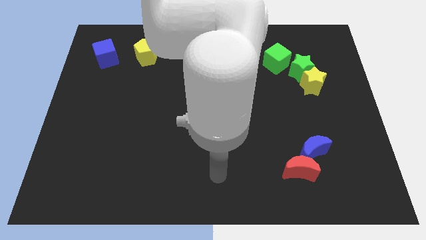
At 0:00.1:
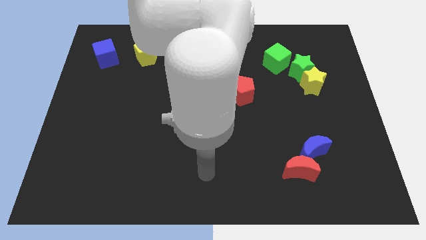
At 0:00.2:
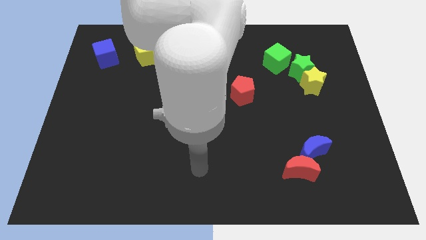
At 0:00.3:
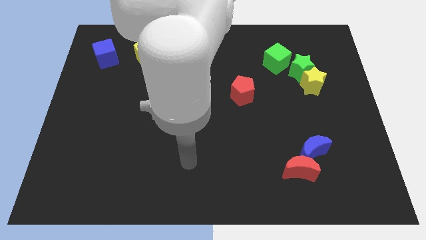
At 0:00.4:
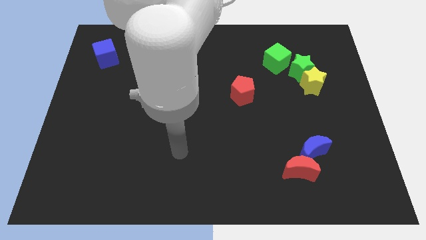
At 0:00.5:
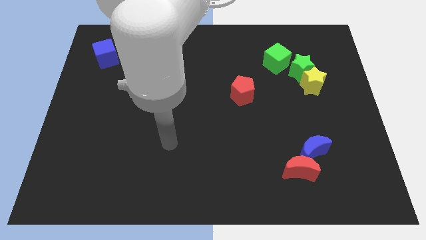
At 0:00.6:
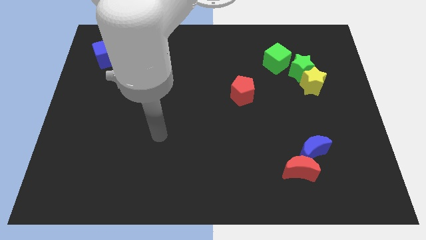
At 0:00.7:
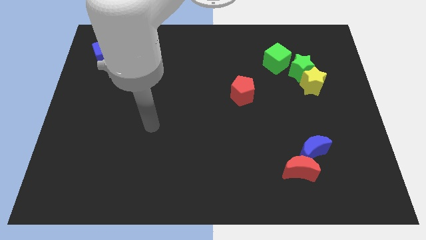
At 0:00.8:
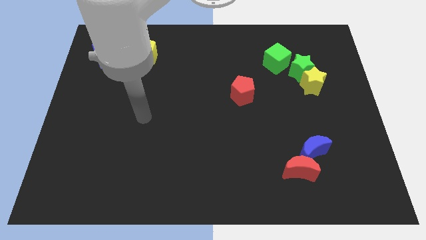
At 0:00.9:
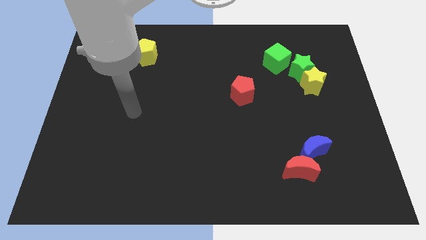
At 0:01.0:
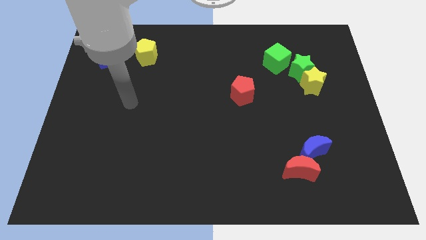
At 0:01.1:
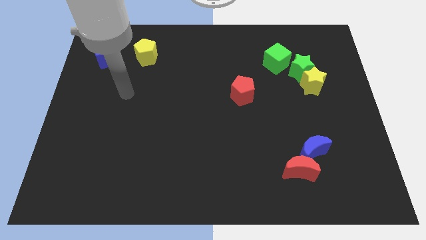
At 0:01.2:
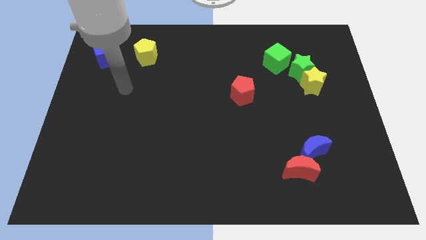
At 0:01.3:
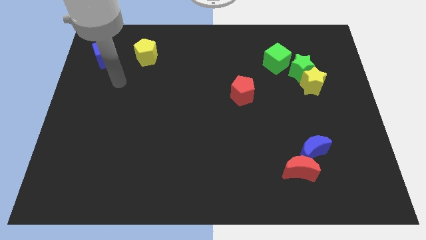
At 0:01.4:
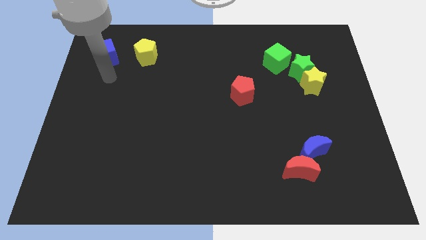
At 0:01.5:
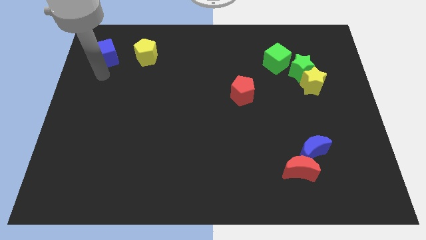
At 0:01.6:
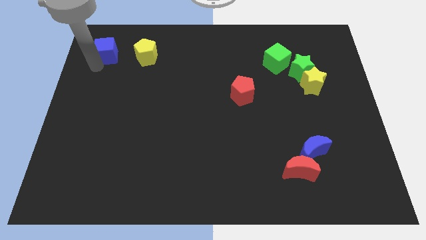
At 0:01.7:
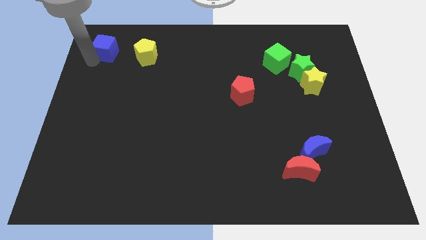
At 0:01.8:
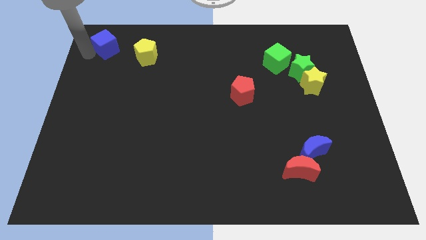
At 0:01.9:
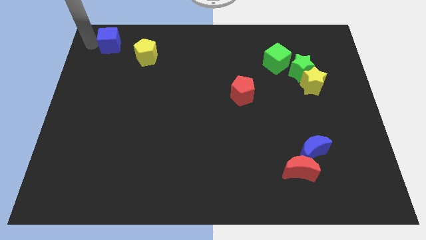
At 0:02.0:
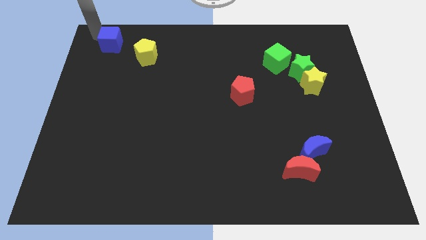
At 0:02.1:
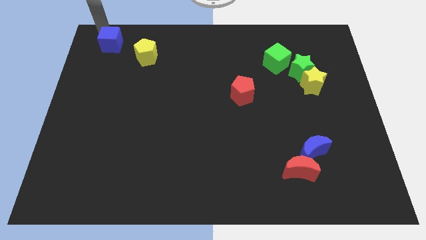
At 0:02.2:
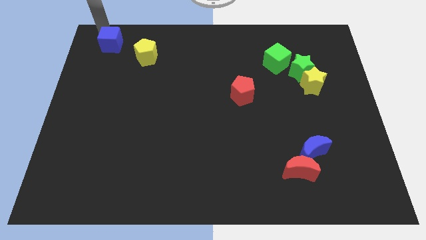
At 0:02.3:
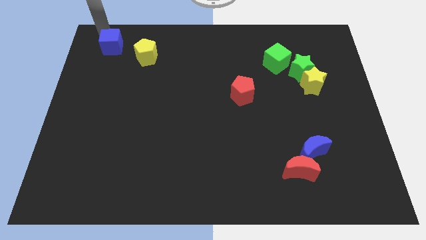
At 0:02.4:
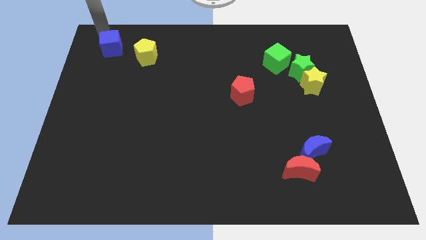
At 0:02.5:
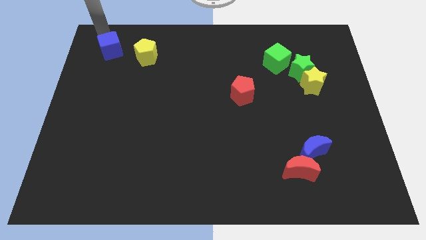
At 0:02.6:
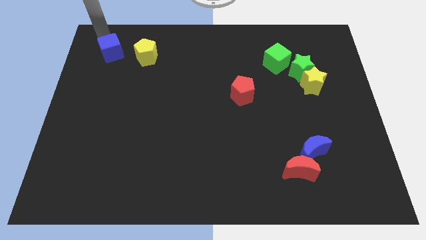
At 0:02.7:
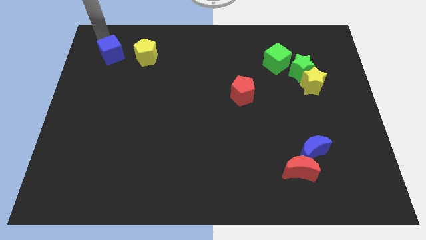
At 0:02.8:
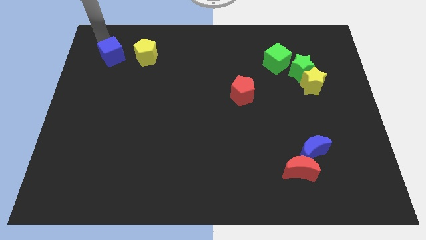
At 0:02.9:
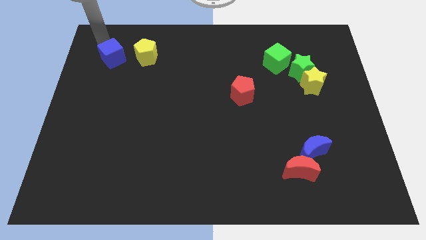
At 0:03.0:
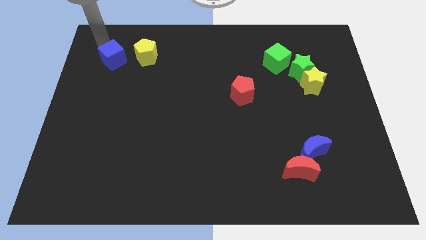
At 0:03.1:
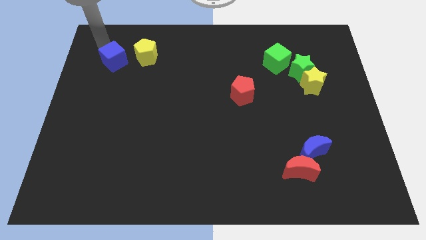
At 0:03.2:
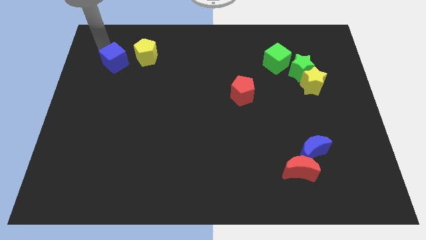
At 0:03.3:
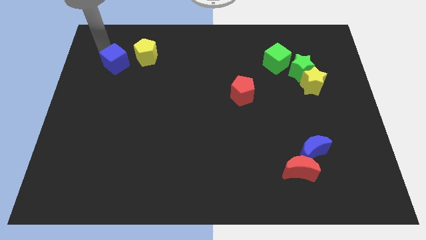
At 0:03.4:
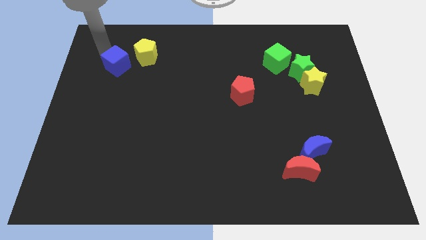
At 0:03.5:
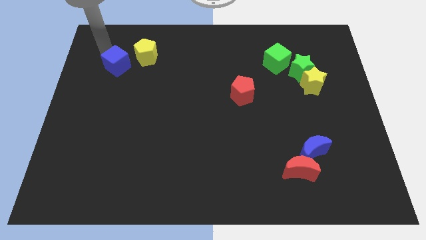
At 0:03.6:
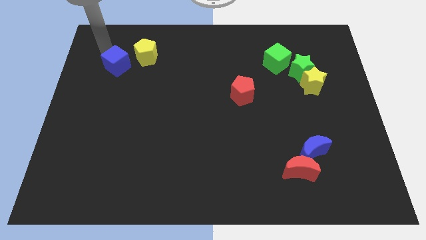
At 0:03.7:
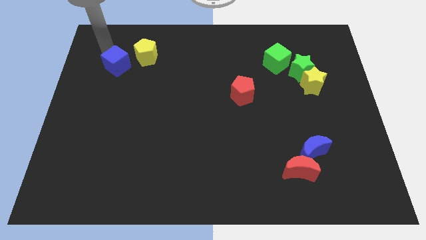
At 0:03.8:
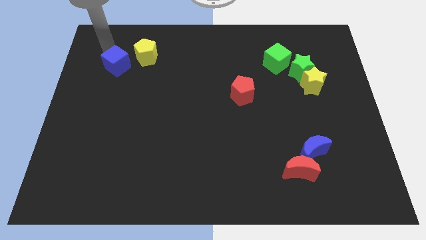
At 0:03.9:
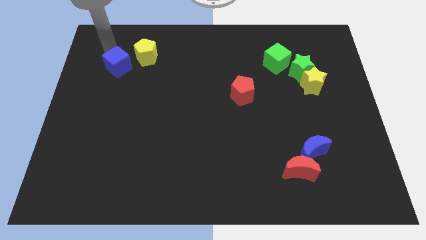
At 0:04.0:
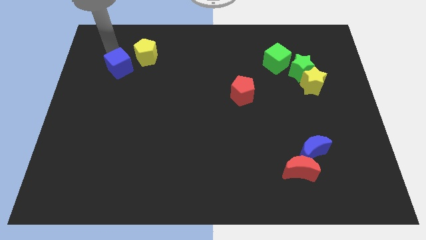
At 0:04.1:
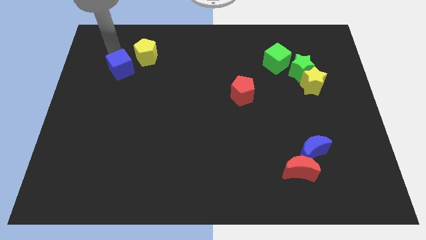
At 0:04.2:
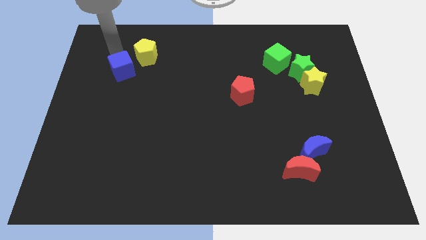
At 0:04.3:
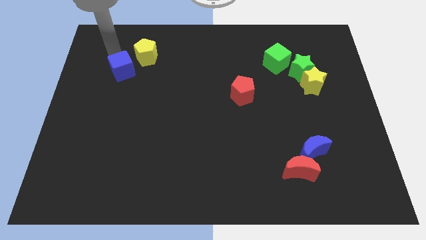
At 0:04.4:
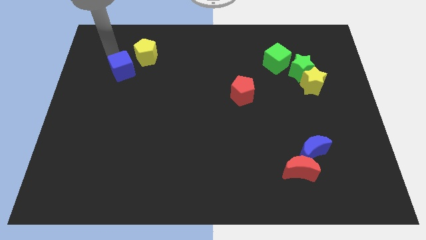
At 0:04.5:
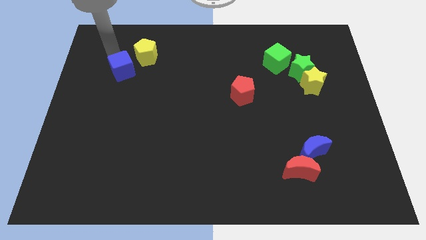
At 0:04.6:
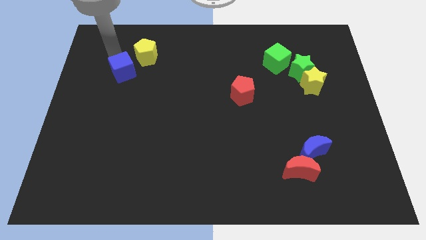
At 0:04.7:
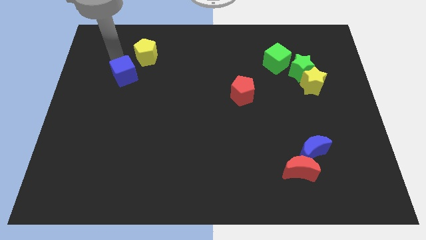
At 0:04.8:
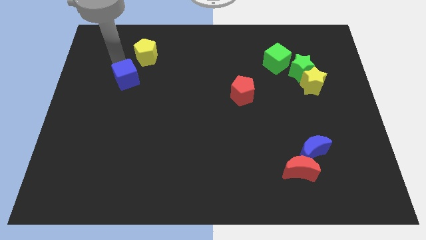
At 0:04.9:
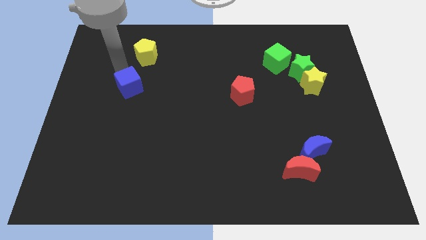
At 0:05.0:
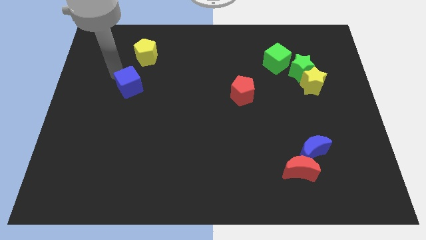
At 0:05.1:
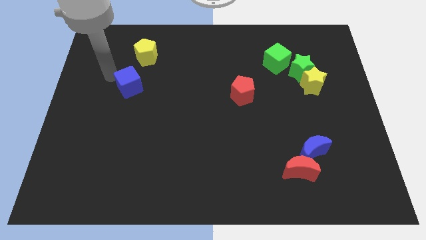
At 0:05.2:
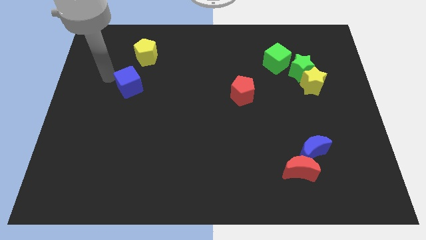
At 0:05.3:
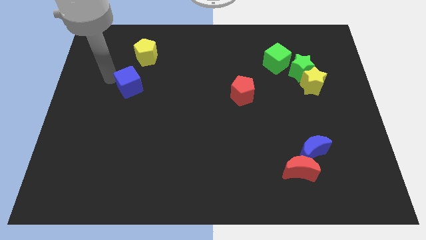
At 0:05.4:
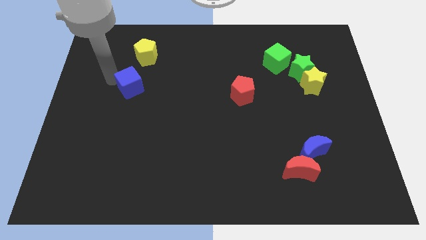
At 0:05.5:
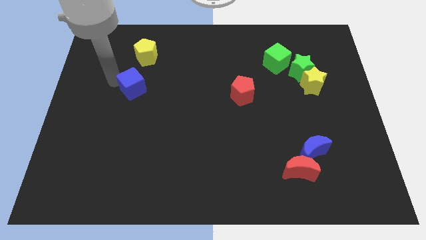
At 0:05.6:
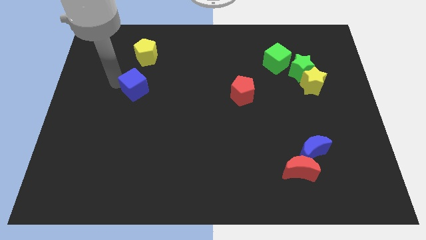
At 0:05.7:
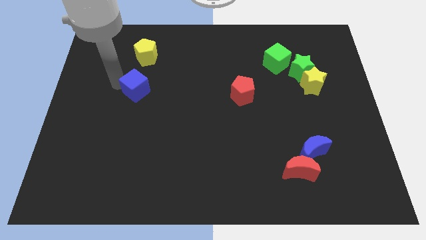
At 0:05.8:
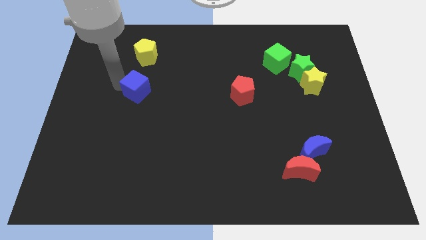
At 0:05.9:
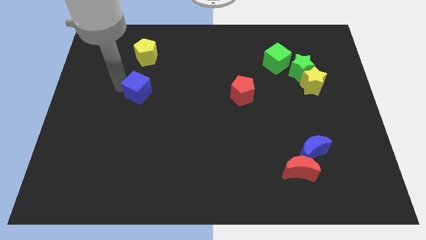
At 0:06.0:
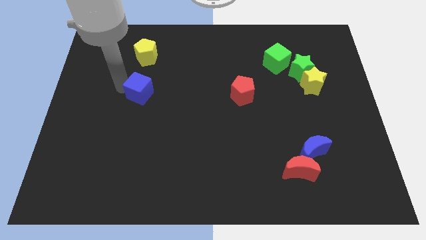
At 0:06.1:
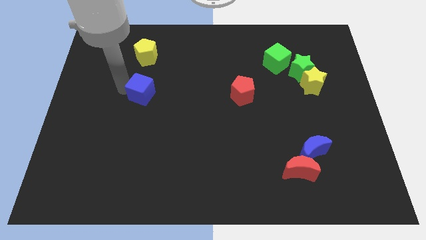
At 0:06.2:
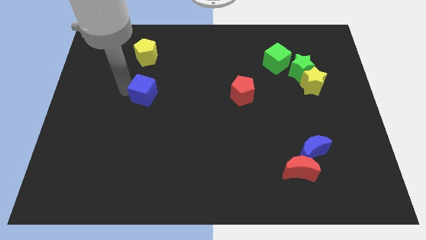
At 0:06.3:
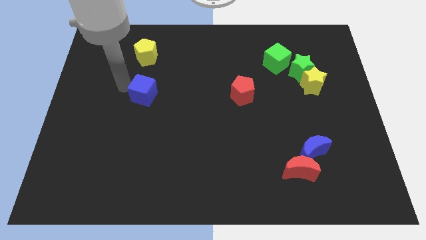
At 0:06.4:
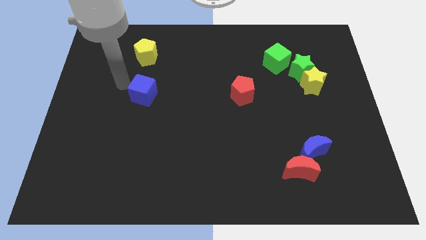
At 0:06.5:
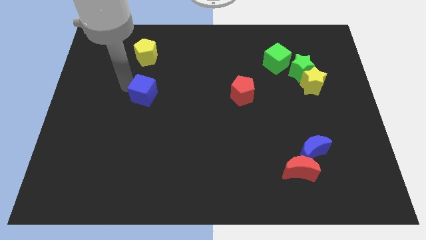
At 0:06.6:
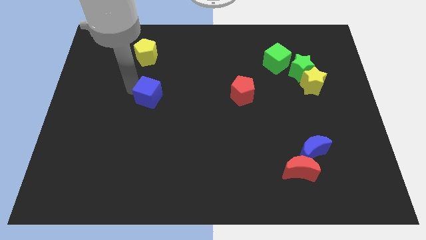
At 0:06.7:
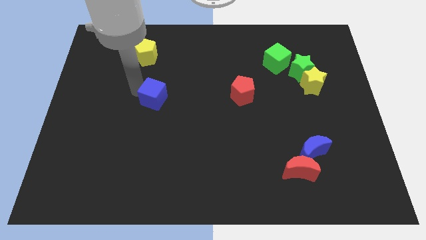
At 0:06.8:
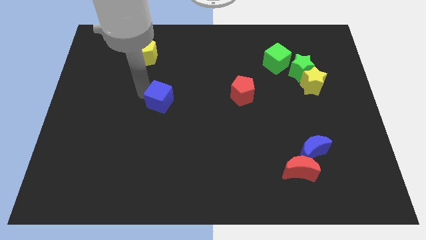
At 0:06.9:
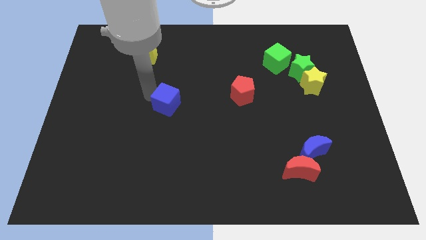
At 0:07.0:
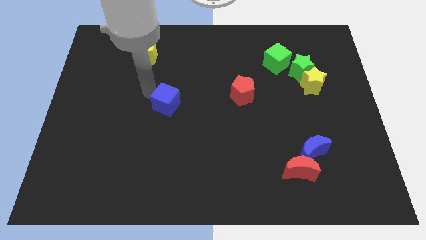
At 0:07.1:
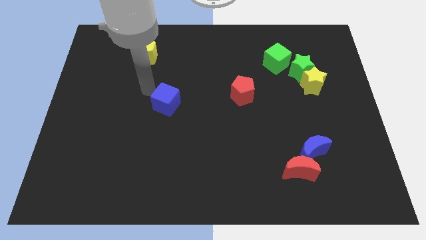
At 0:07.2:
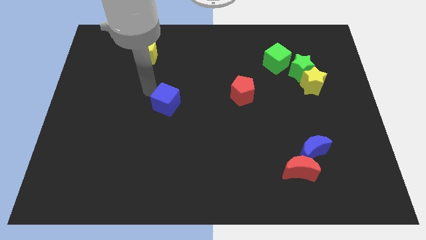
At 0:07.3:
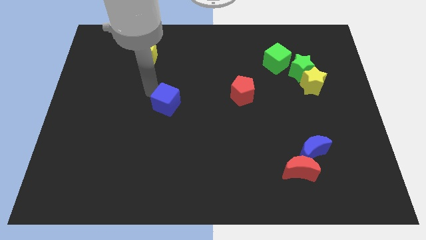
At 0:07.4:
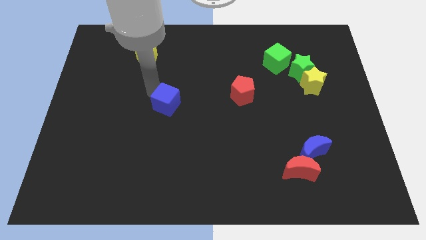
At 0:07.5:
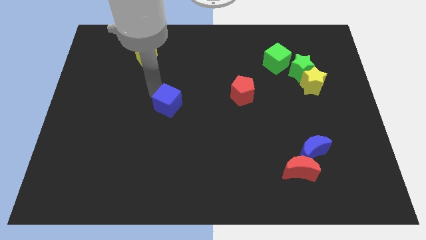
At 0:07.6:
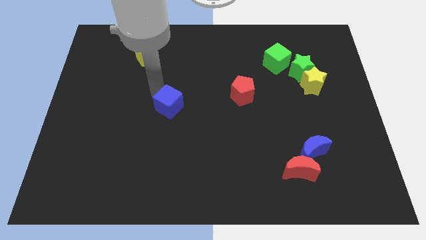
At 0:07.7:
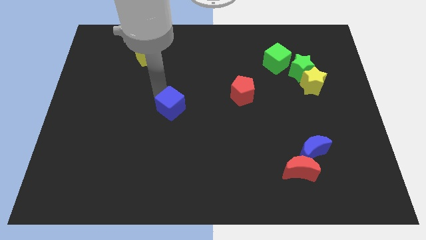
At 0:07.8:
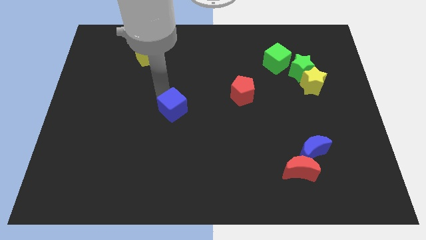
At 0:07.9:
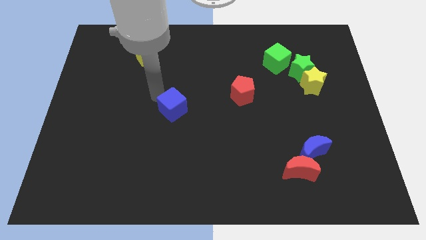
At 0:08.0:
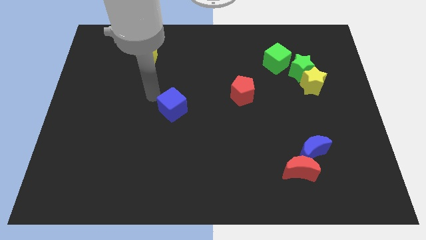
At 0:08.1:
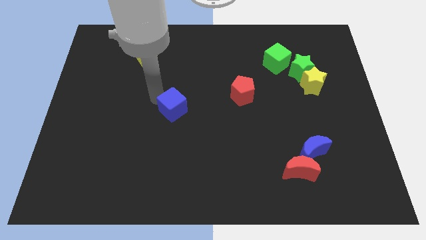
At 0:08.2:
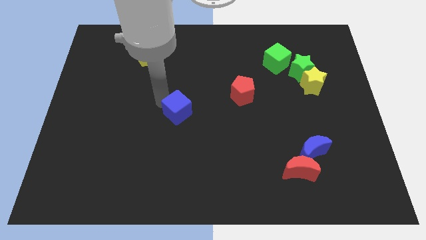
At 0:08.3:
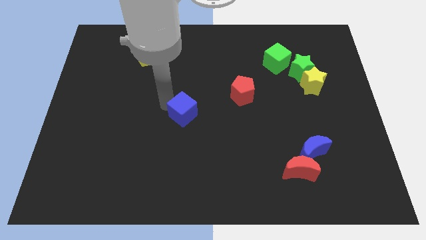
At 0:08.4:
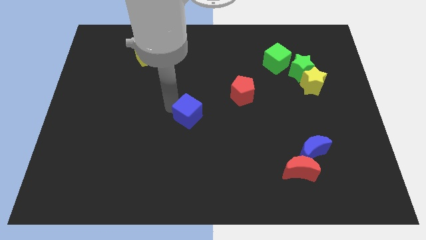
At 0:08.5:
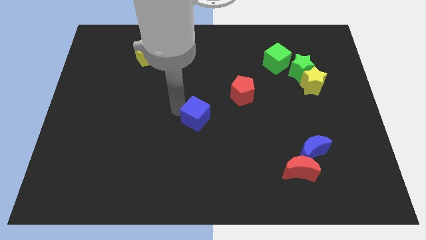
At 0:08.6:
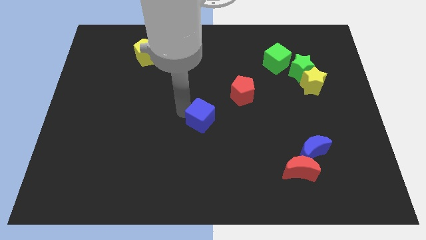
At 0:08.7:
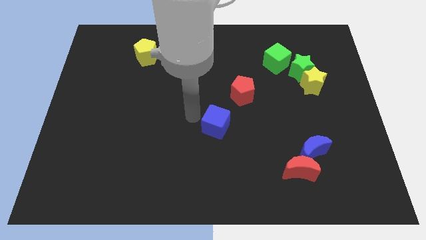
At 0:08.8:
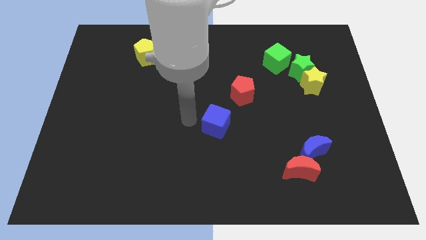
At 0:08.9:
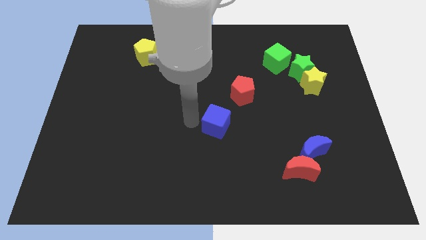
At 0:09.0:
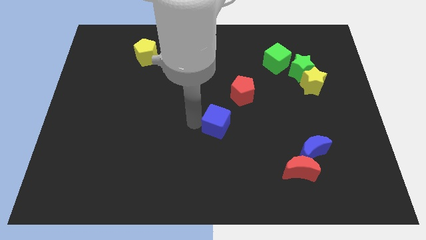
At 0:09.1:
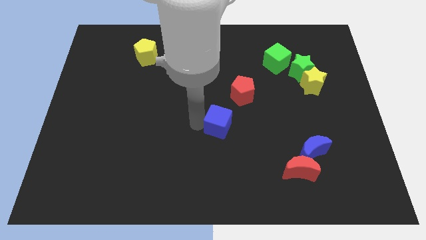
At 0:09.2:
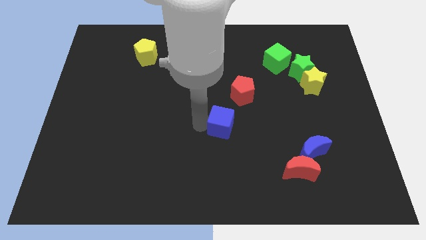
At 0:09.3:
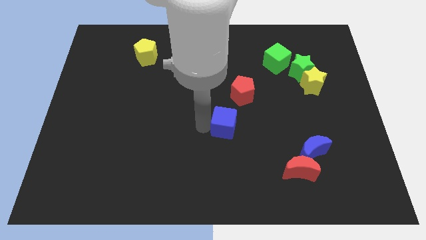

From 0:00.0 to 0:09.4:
push the blue cube to the bottom side of the red pentagon
